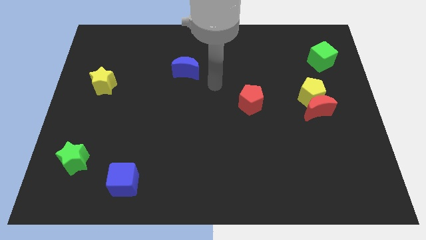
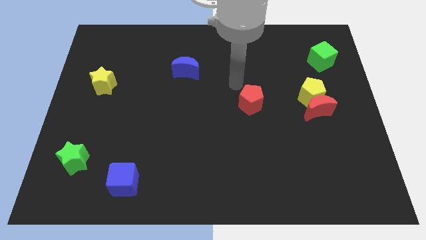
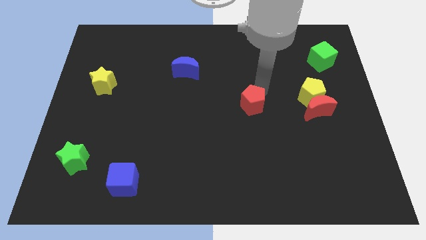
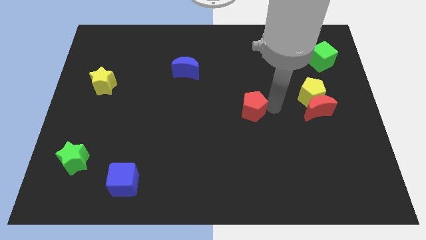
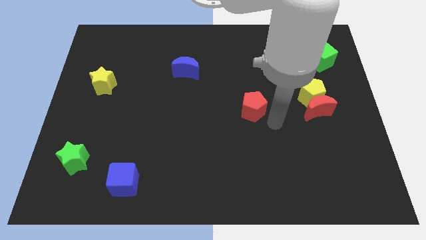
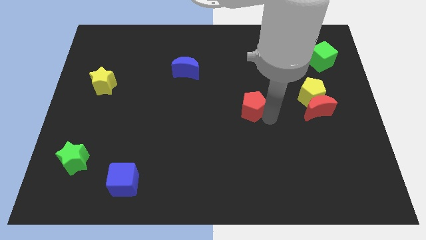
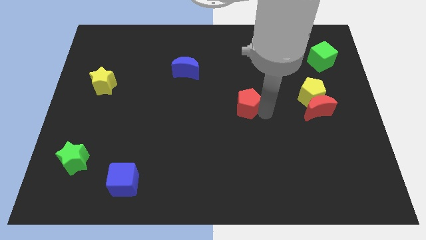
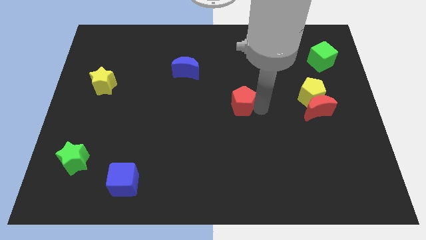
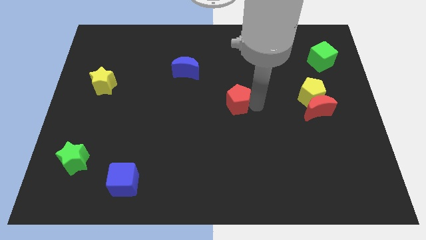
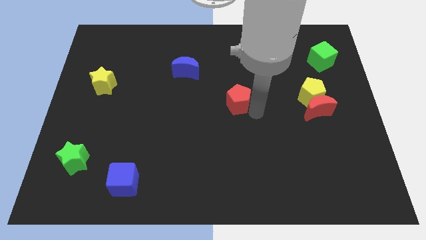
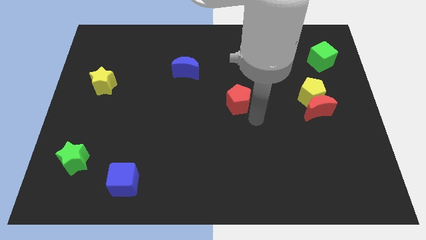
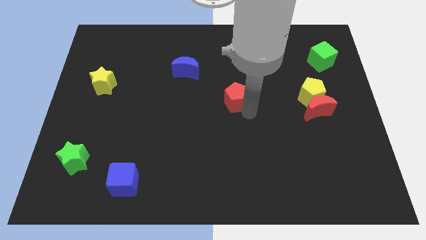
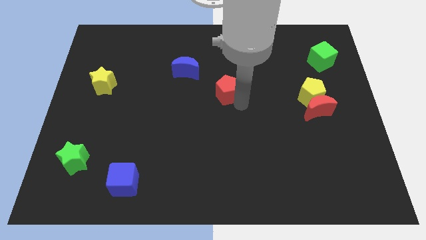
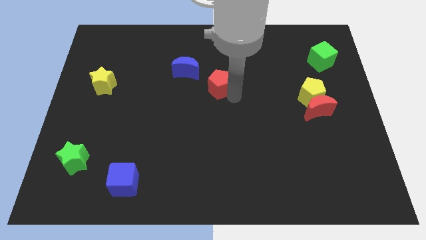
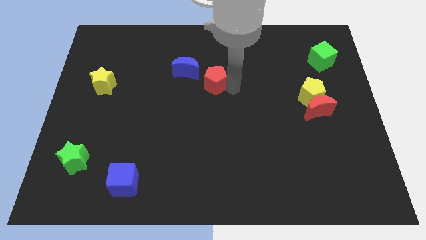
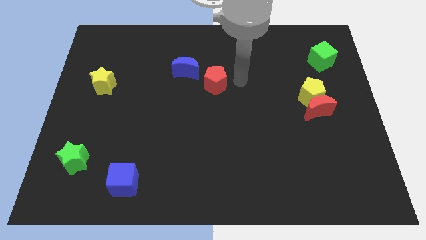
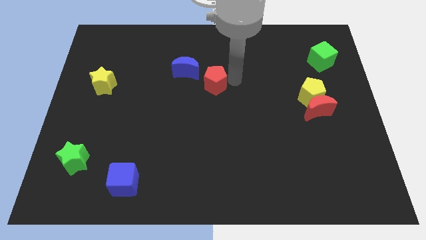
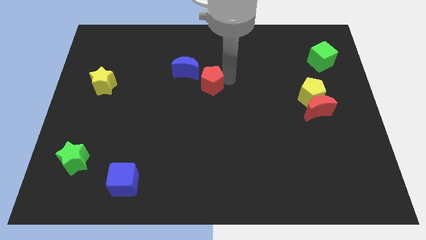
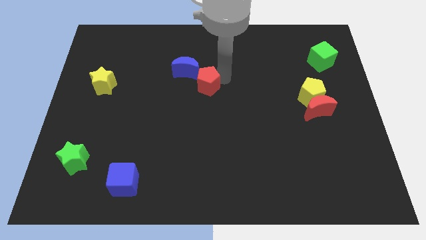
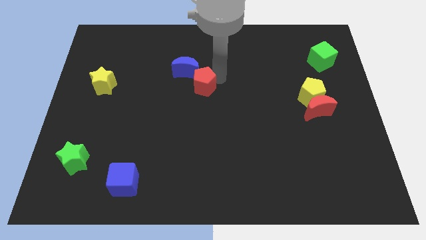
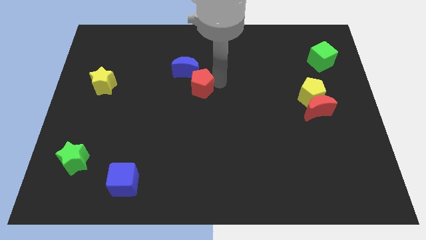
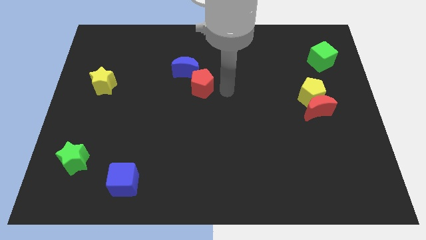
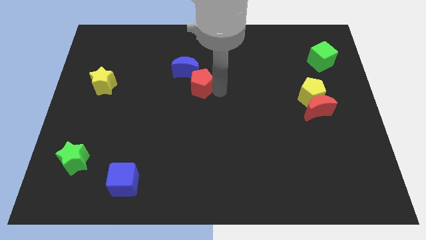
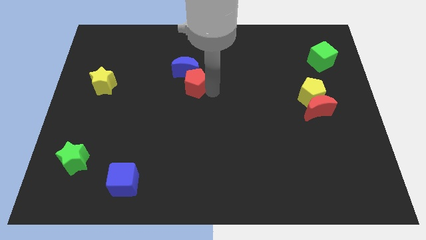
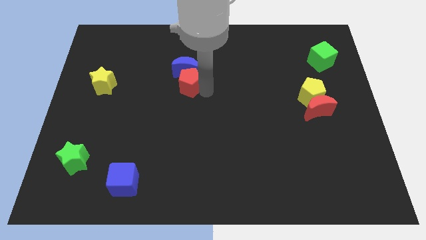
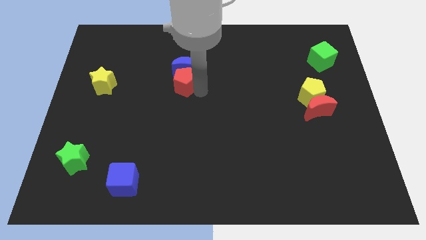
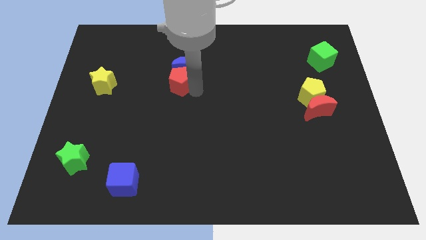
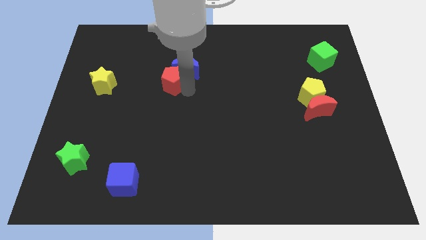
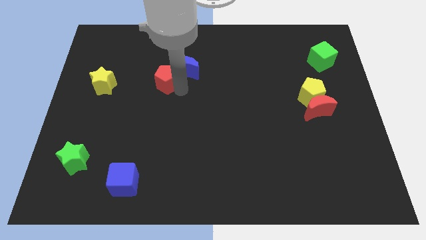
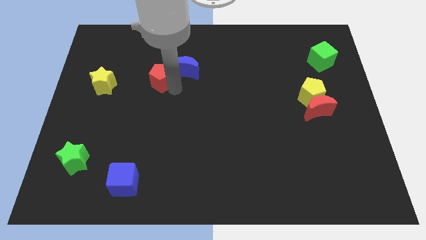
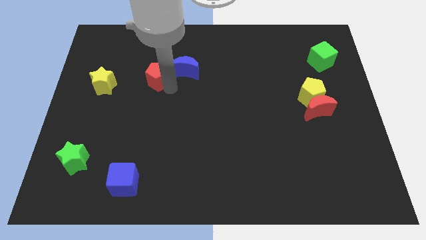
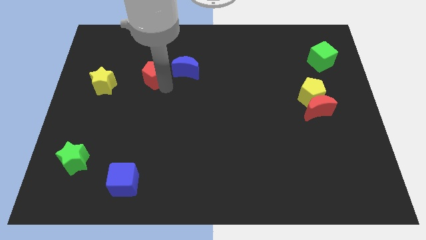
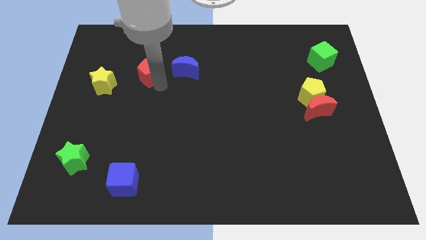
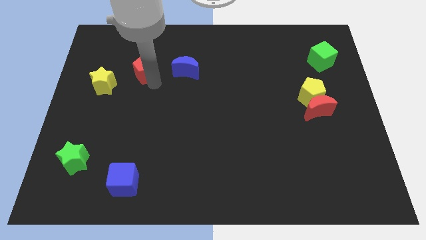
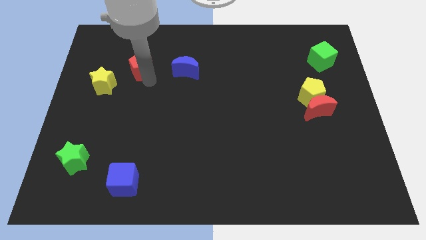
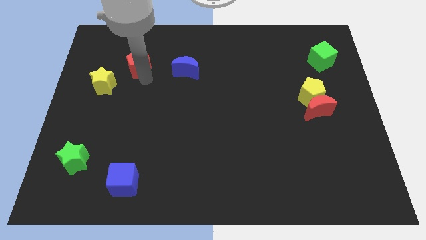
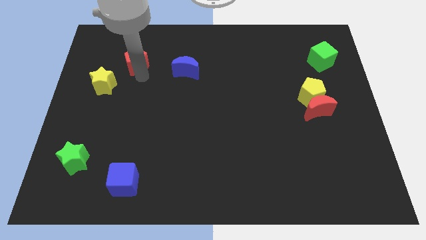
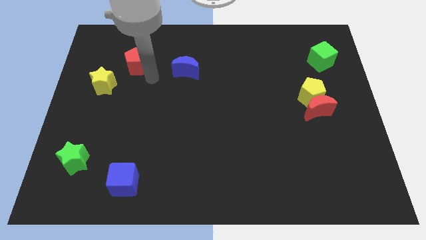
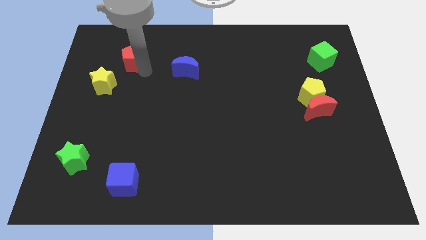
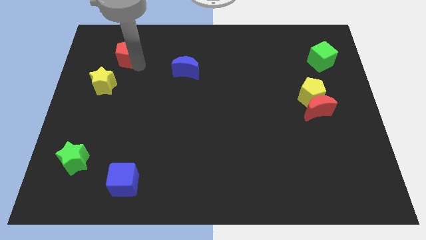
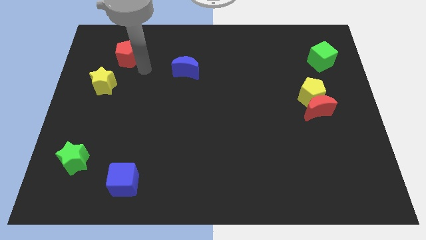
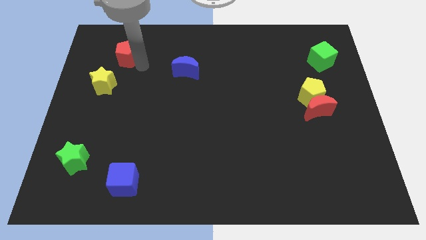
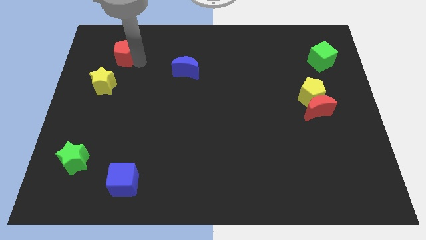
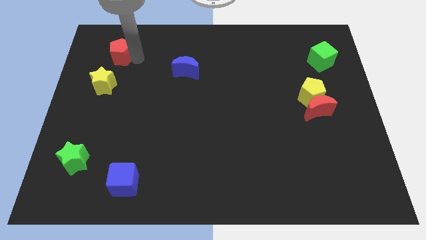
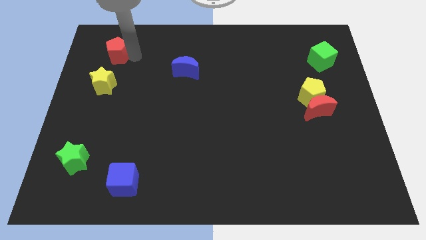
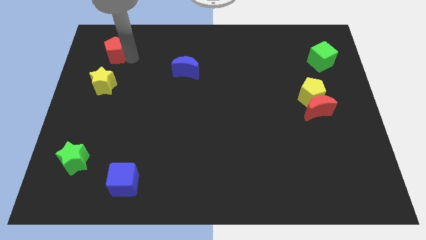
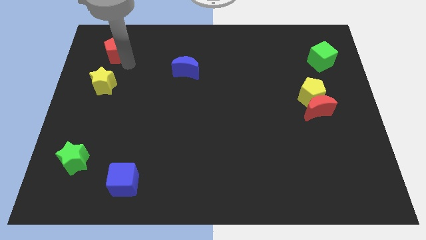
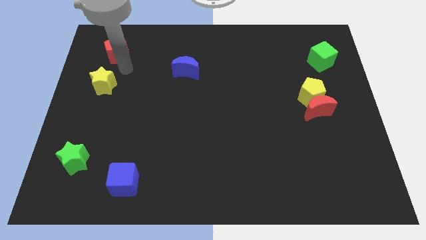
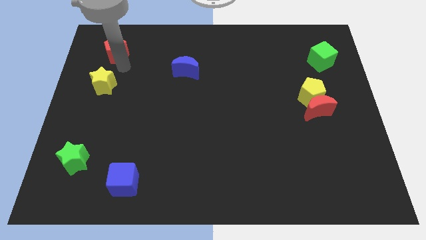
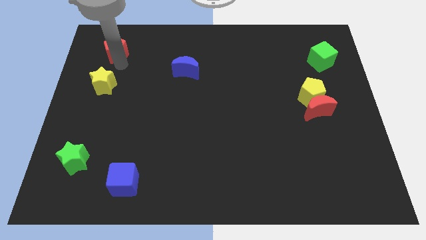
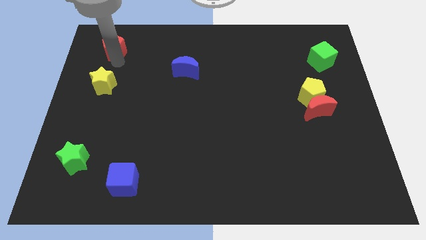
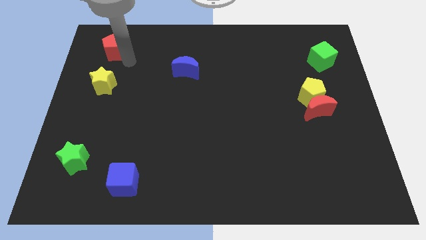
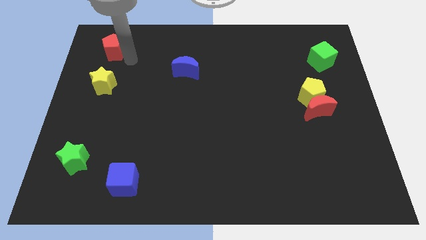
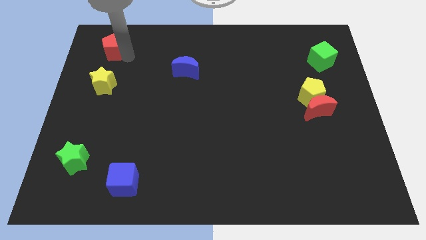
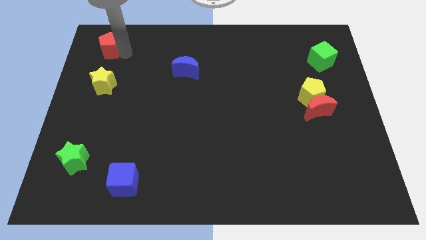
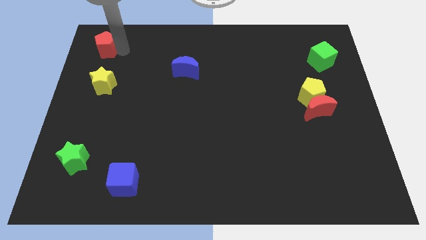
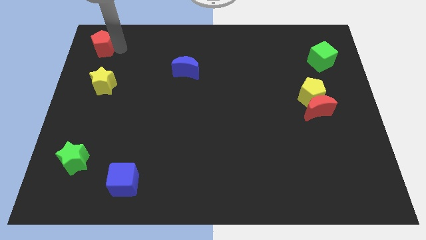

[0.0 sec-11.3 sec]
slide the red pentagon to the upper left corner
